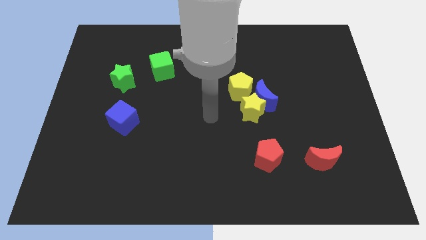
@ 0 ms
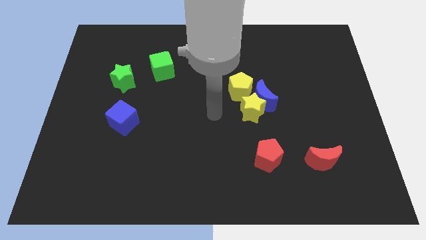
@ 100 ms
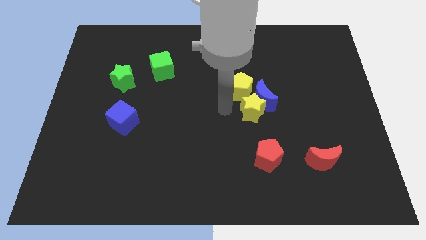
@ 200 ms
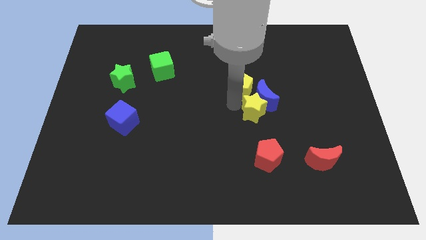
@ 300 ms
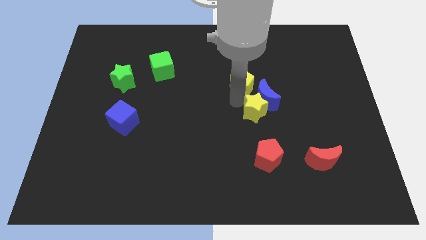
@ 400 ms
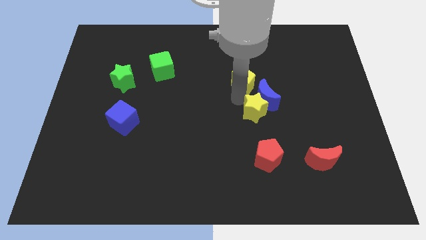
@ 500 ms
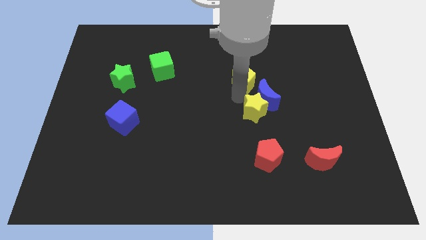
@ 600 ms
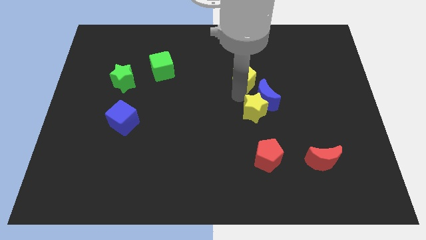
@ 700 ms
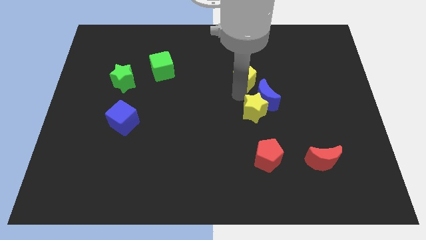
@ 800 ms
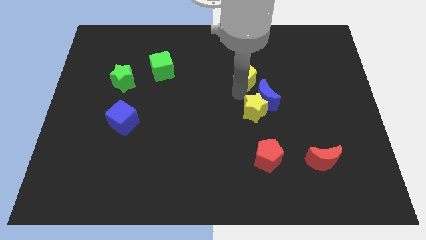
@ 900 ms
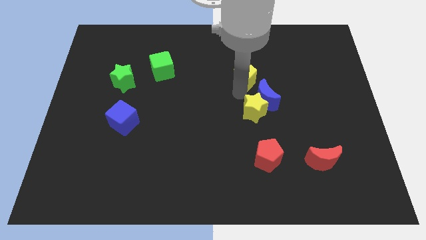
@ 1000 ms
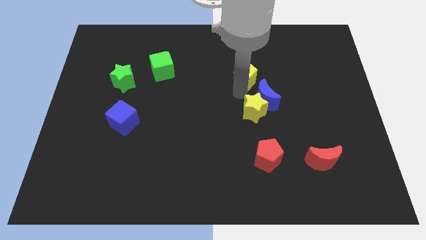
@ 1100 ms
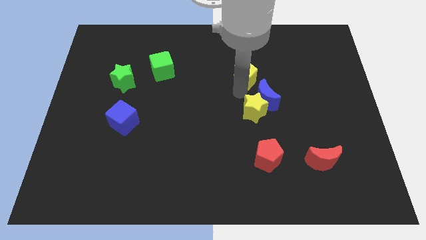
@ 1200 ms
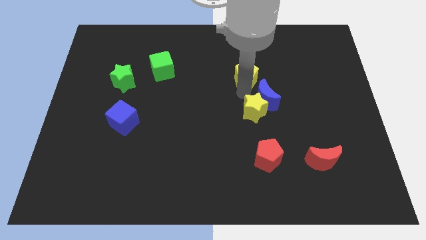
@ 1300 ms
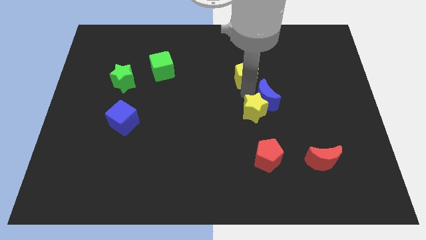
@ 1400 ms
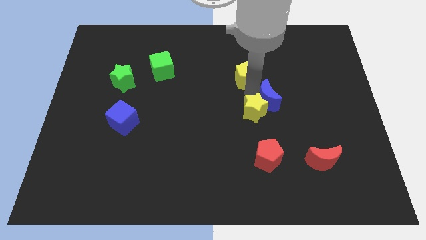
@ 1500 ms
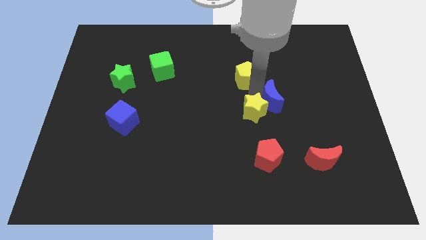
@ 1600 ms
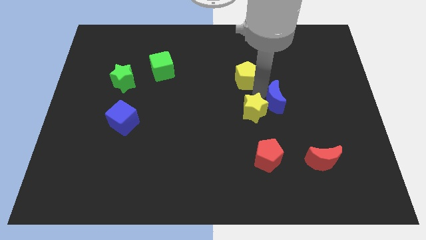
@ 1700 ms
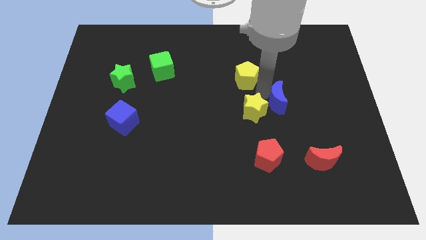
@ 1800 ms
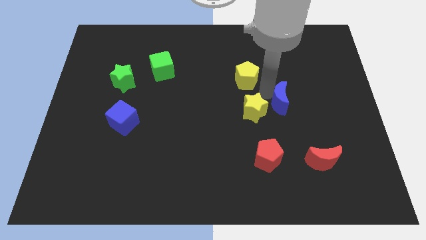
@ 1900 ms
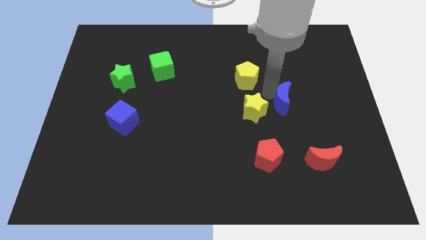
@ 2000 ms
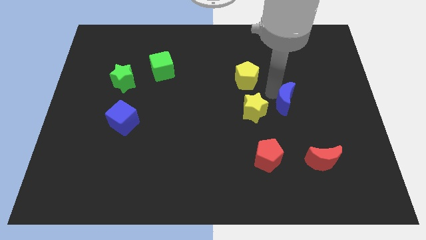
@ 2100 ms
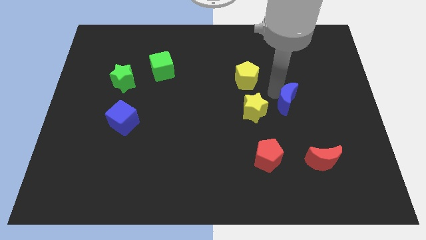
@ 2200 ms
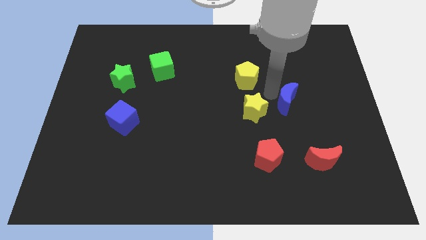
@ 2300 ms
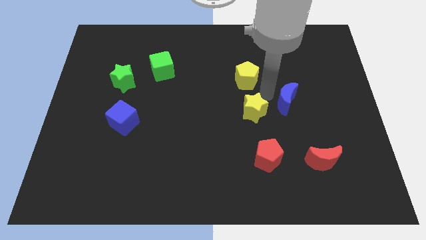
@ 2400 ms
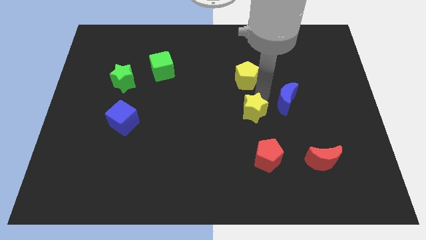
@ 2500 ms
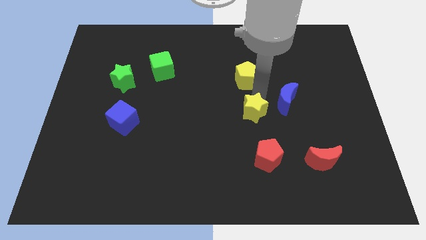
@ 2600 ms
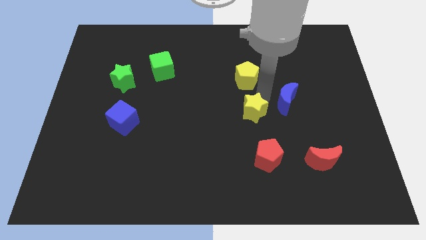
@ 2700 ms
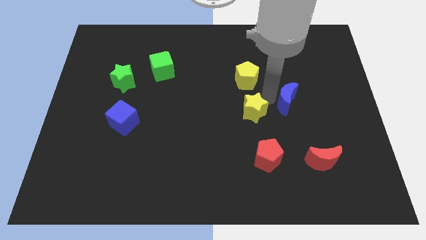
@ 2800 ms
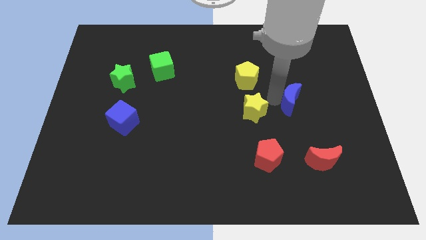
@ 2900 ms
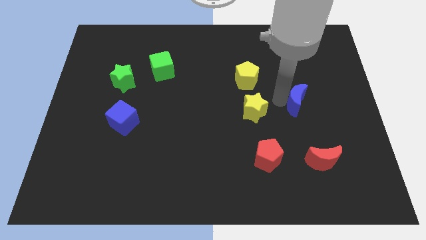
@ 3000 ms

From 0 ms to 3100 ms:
separate the blue moon from the yellow star and yellow pentagon

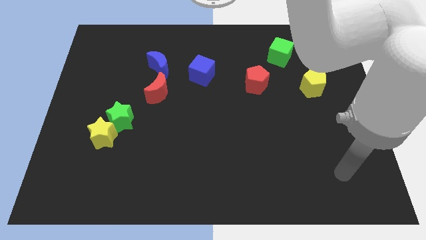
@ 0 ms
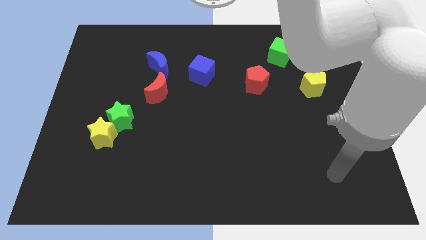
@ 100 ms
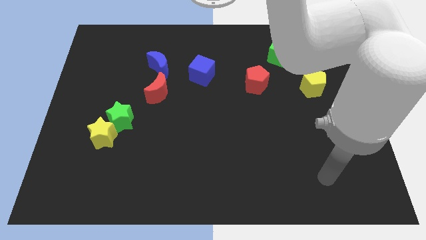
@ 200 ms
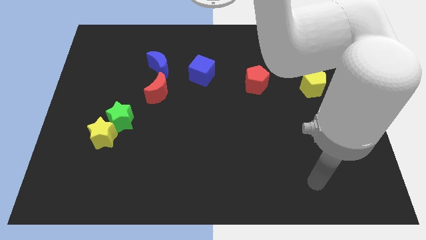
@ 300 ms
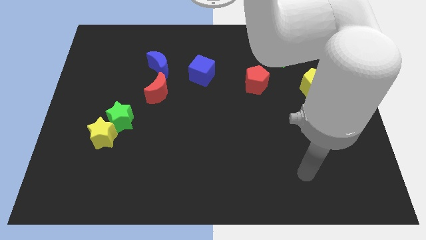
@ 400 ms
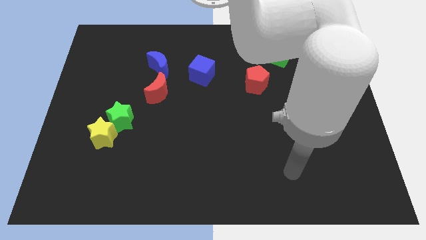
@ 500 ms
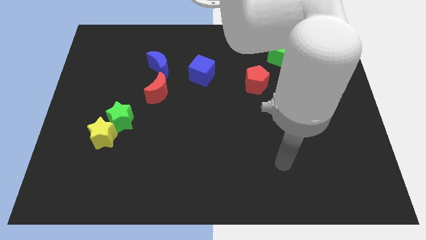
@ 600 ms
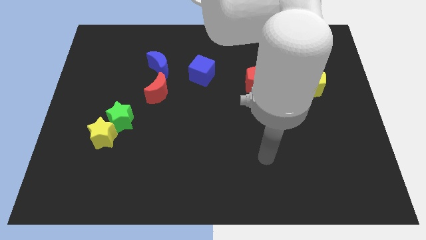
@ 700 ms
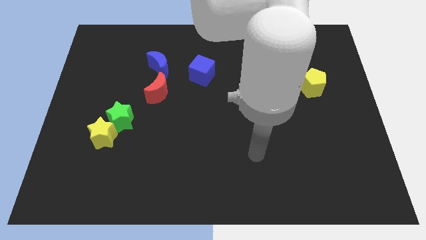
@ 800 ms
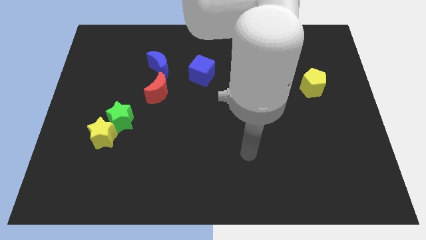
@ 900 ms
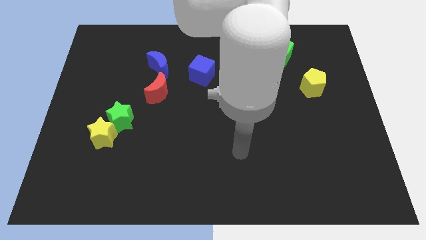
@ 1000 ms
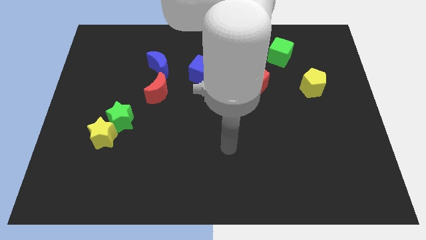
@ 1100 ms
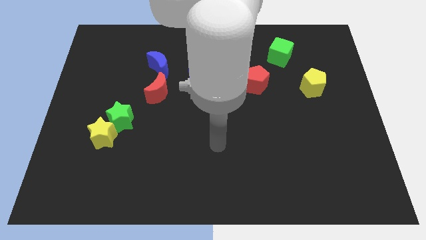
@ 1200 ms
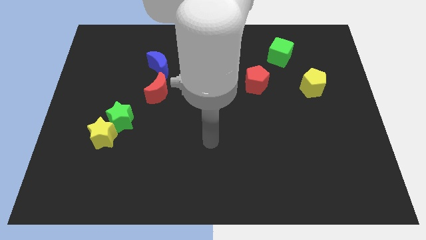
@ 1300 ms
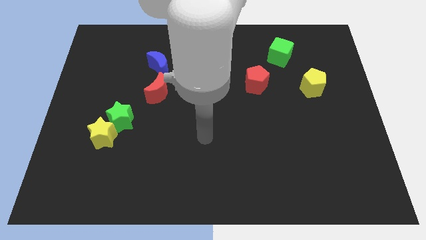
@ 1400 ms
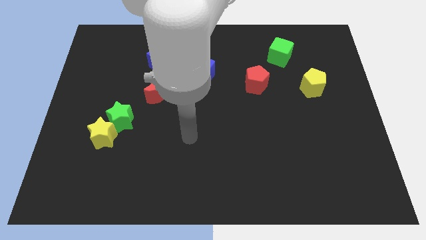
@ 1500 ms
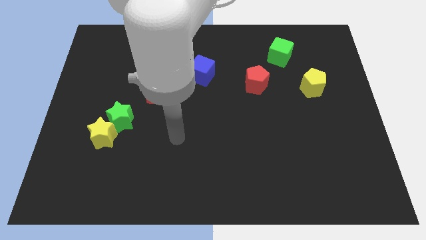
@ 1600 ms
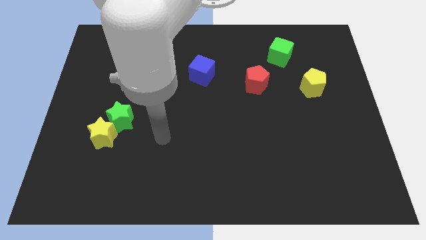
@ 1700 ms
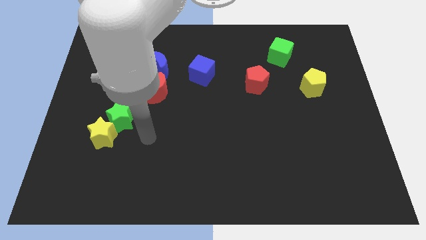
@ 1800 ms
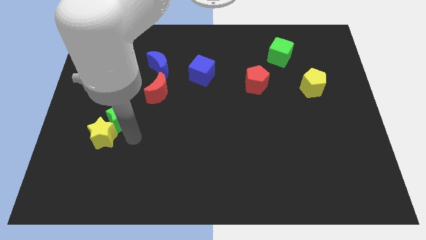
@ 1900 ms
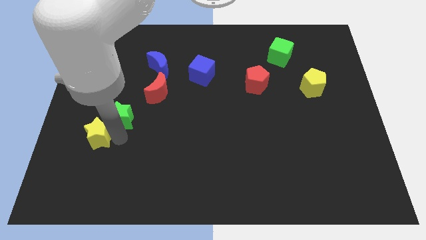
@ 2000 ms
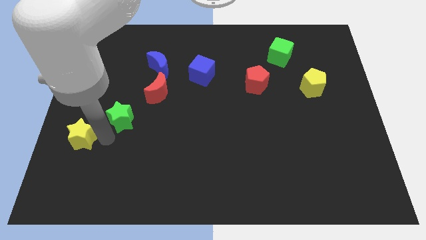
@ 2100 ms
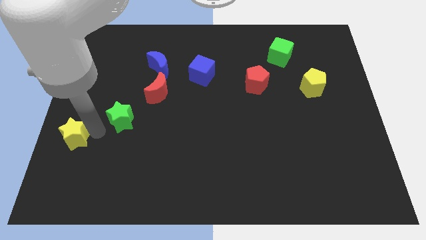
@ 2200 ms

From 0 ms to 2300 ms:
move the green star away from the yellow star

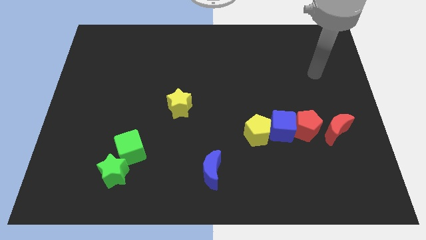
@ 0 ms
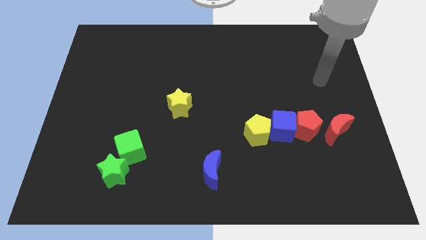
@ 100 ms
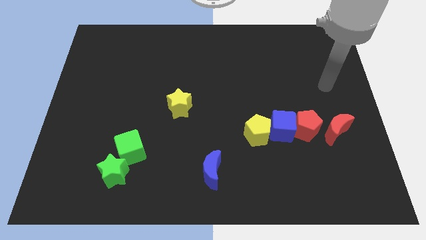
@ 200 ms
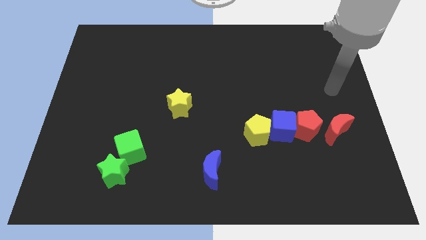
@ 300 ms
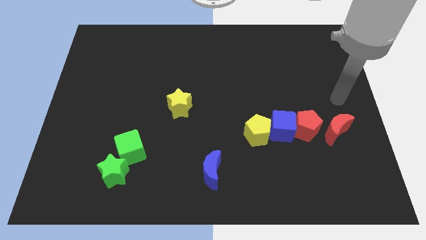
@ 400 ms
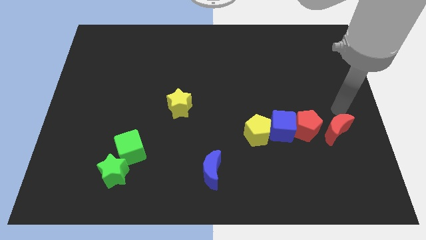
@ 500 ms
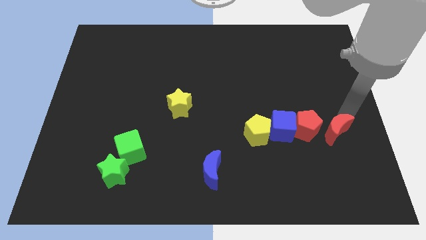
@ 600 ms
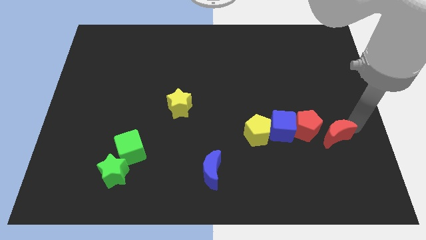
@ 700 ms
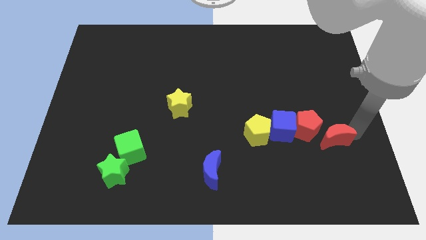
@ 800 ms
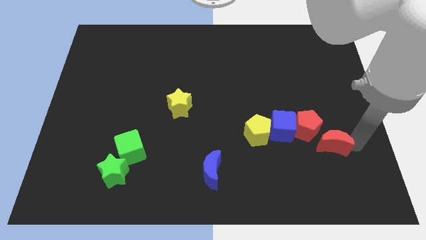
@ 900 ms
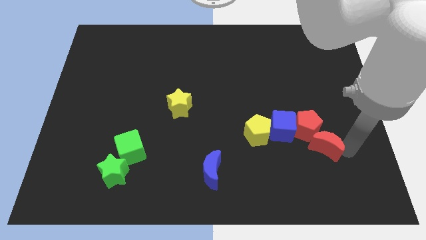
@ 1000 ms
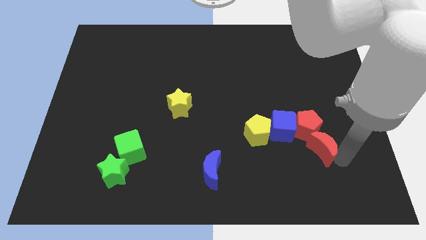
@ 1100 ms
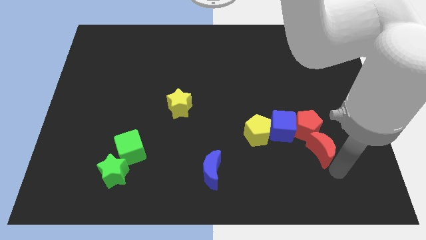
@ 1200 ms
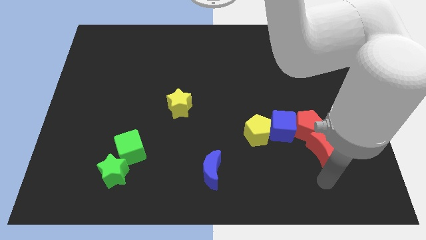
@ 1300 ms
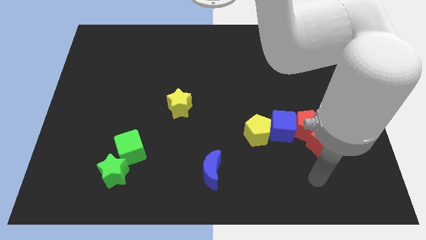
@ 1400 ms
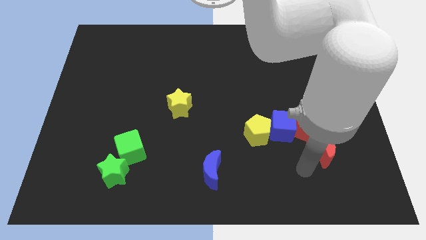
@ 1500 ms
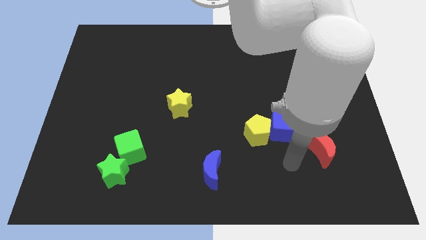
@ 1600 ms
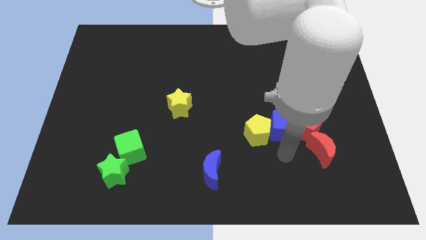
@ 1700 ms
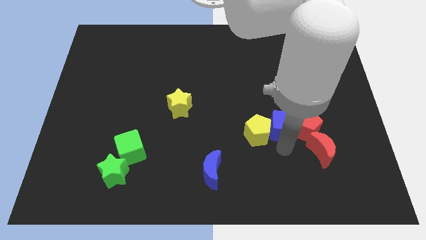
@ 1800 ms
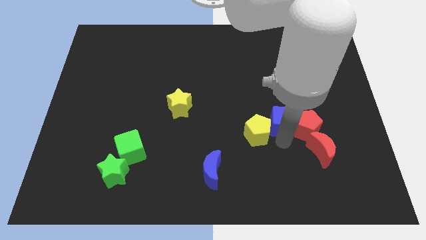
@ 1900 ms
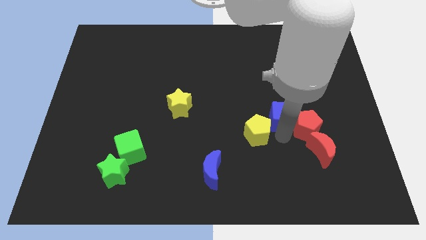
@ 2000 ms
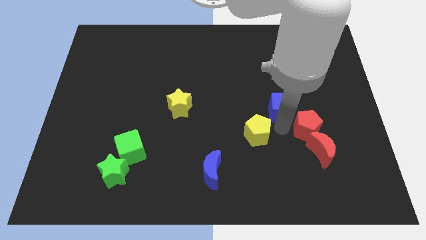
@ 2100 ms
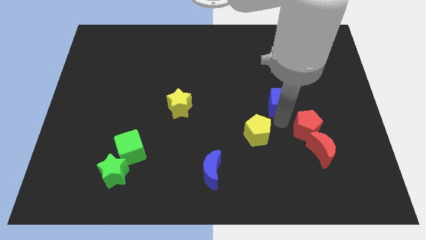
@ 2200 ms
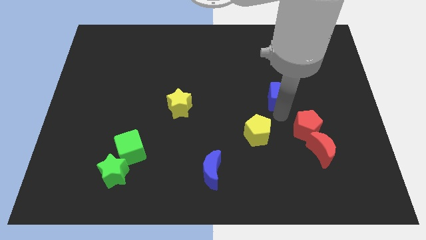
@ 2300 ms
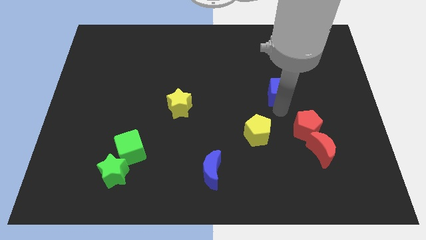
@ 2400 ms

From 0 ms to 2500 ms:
move the blue cube away from the red pentagon and yellow pentagon

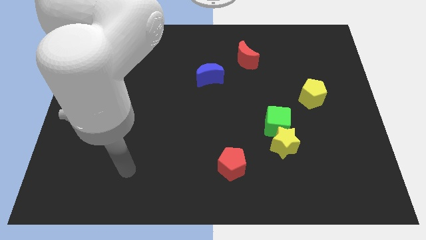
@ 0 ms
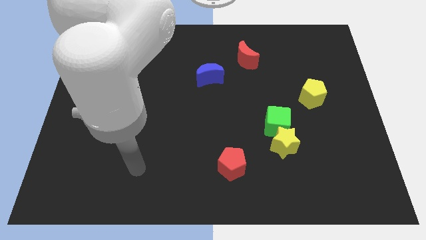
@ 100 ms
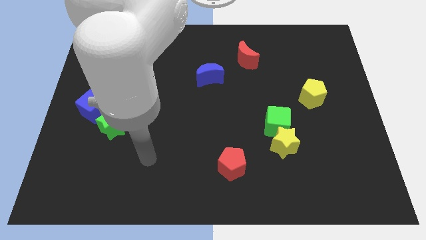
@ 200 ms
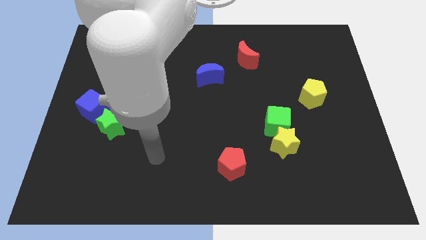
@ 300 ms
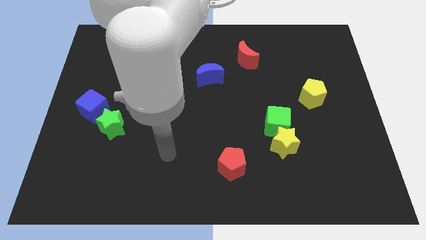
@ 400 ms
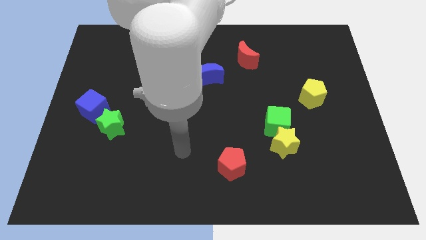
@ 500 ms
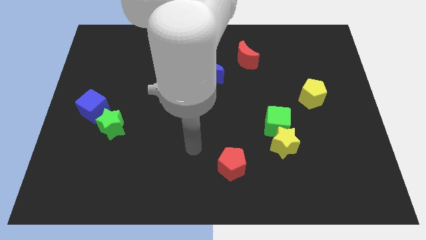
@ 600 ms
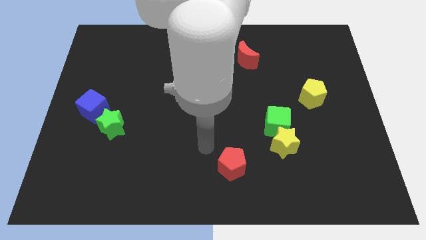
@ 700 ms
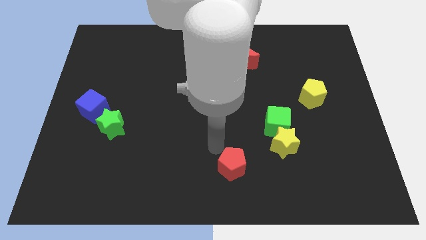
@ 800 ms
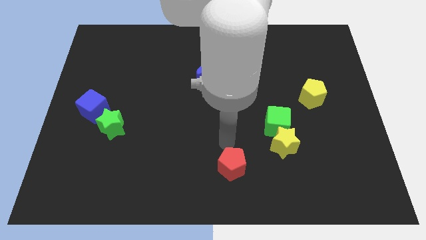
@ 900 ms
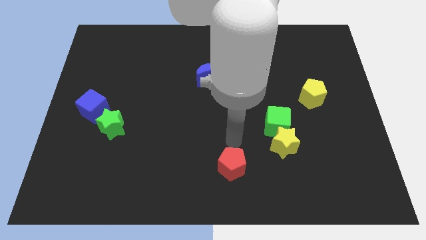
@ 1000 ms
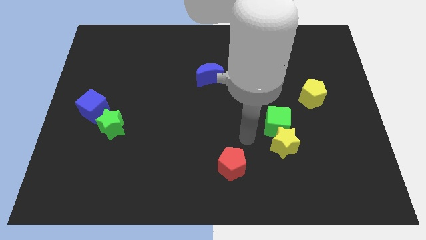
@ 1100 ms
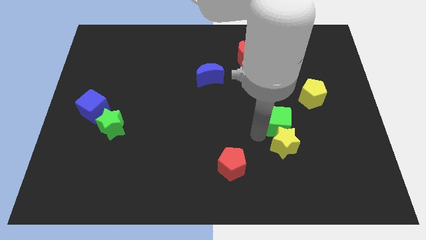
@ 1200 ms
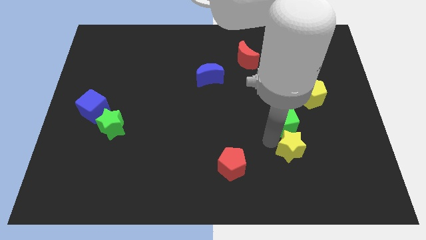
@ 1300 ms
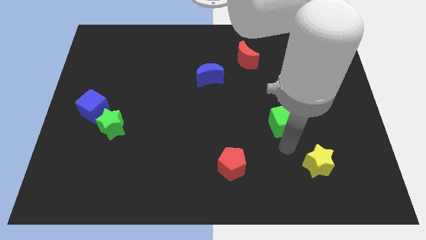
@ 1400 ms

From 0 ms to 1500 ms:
move the green cube away from the yellow star
